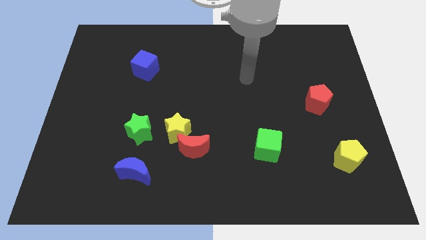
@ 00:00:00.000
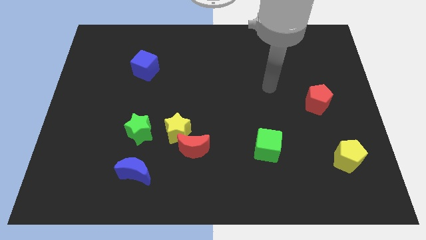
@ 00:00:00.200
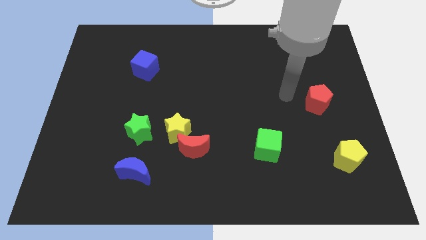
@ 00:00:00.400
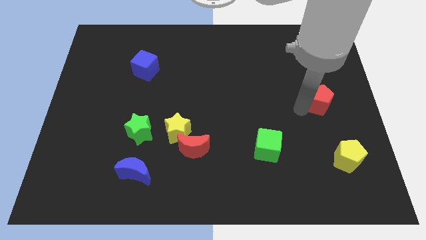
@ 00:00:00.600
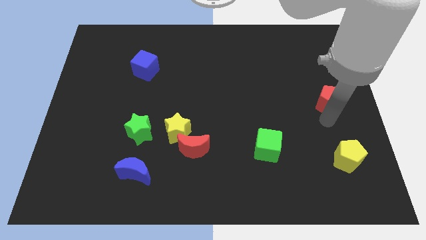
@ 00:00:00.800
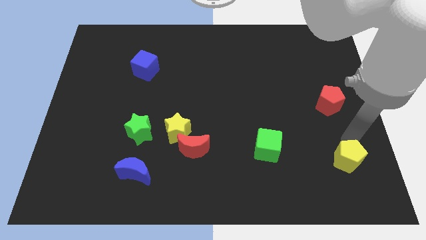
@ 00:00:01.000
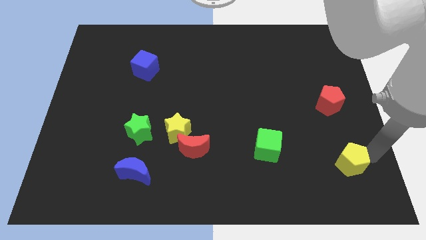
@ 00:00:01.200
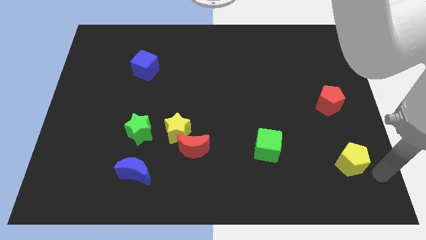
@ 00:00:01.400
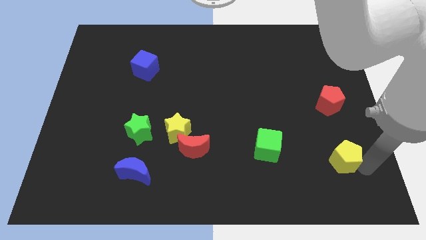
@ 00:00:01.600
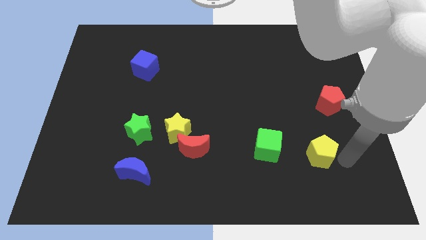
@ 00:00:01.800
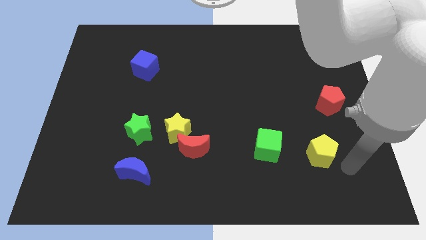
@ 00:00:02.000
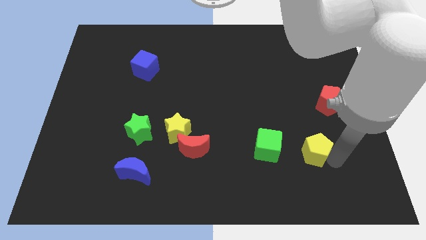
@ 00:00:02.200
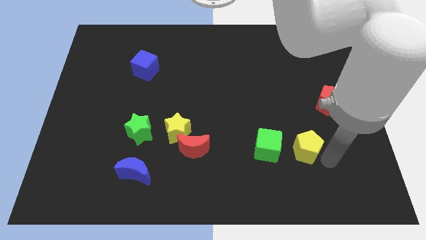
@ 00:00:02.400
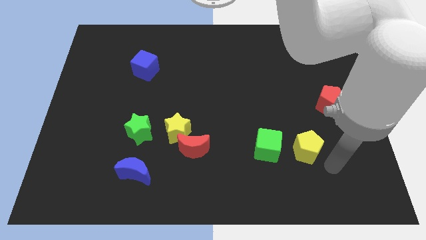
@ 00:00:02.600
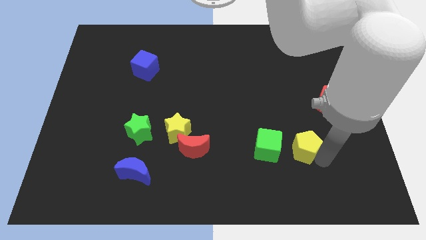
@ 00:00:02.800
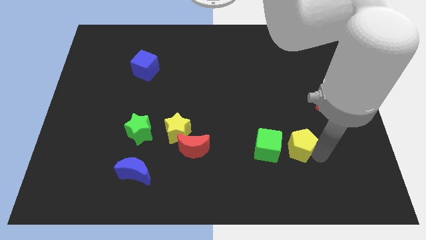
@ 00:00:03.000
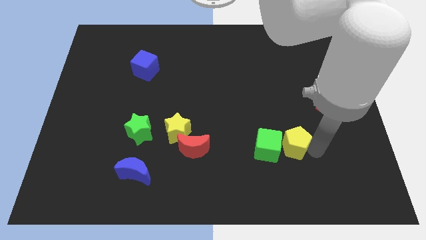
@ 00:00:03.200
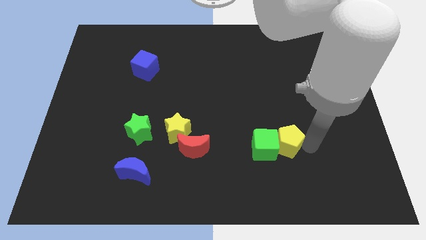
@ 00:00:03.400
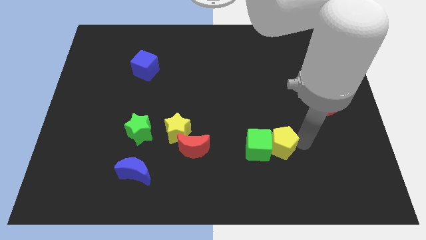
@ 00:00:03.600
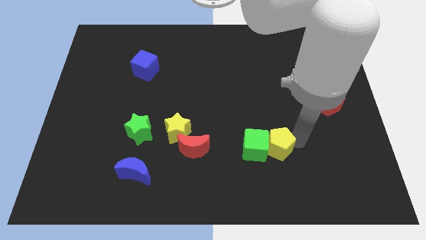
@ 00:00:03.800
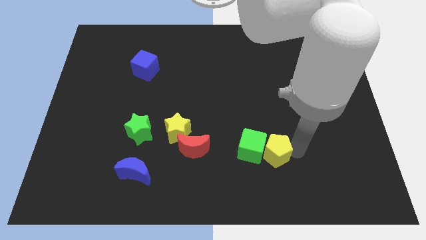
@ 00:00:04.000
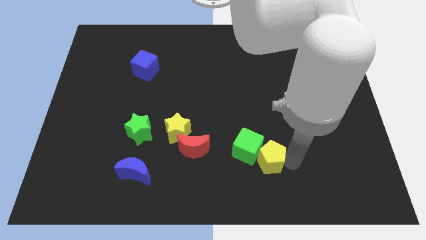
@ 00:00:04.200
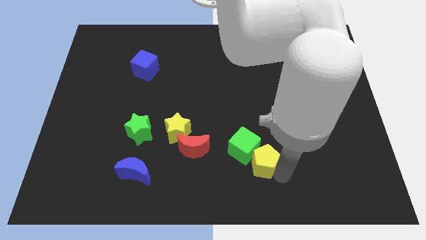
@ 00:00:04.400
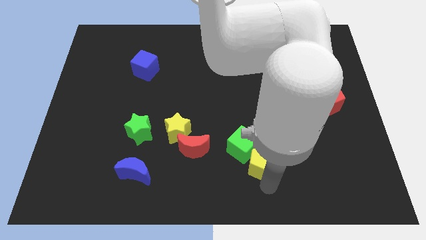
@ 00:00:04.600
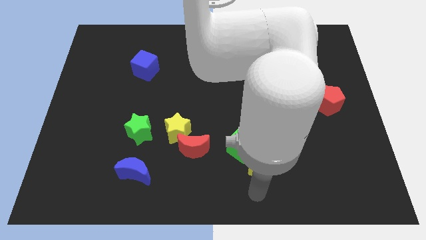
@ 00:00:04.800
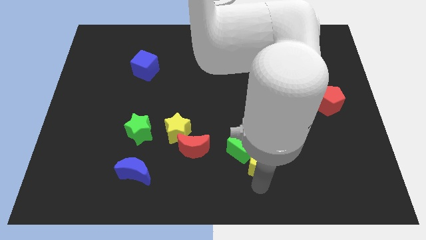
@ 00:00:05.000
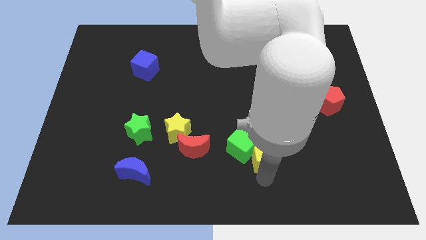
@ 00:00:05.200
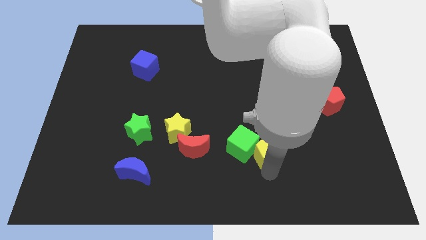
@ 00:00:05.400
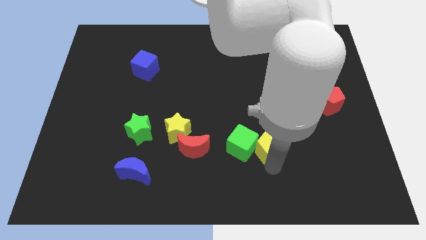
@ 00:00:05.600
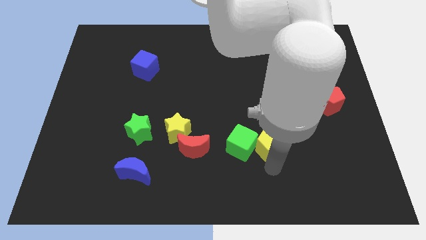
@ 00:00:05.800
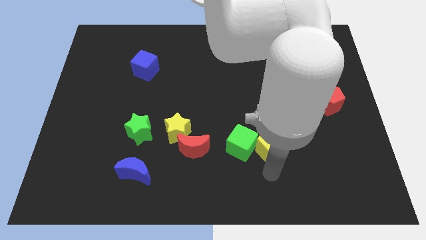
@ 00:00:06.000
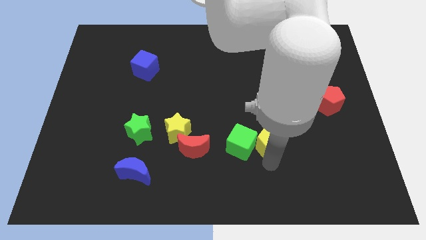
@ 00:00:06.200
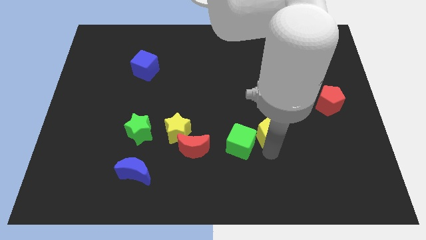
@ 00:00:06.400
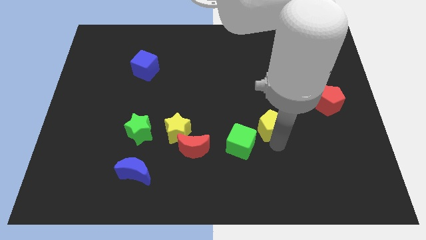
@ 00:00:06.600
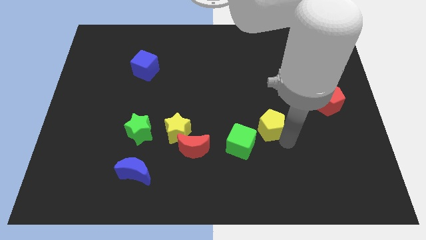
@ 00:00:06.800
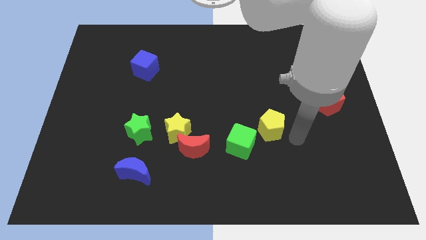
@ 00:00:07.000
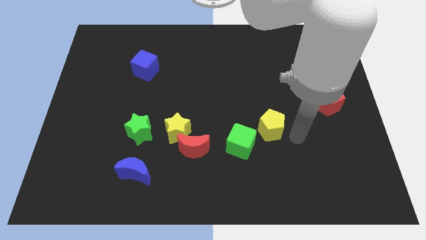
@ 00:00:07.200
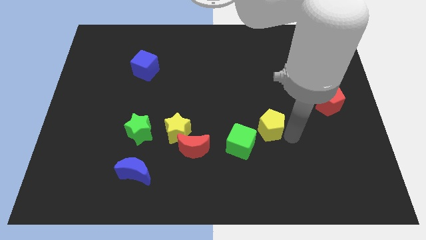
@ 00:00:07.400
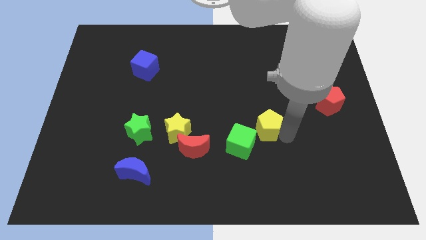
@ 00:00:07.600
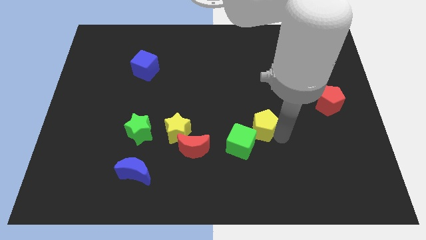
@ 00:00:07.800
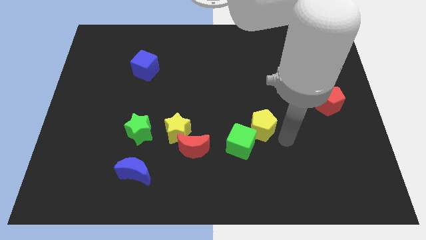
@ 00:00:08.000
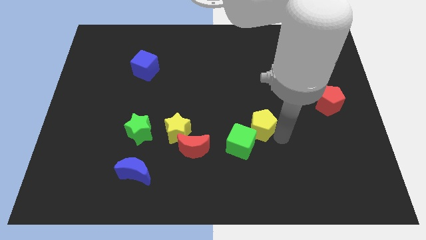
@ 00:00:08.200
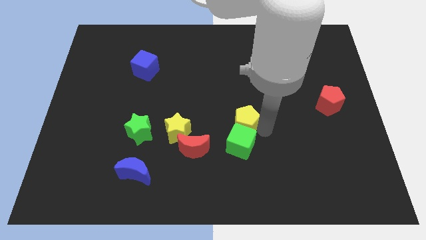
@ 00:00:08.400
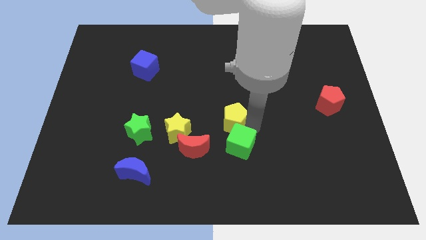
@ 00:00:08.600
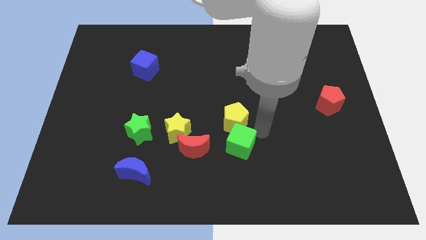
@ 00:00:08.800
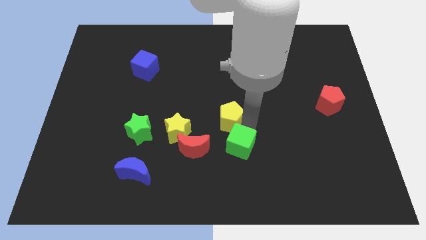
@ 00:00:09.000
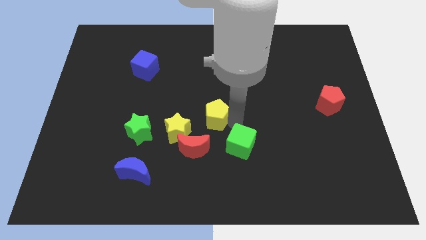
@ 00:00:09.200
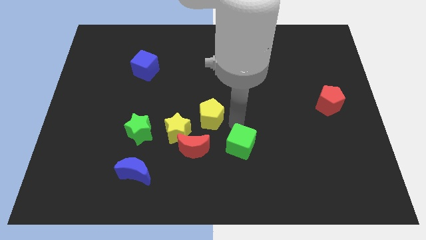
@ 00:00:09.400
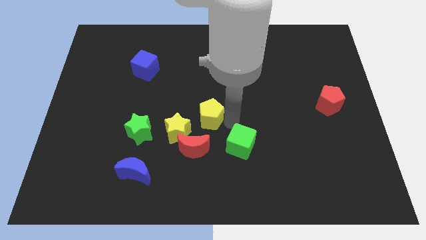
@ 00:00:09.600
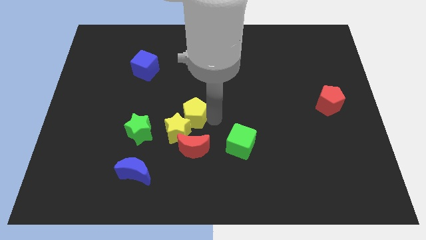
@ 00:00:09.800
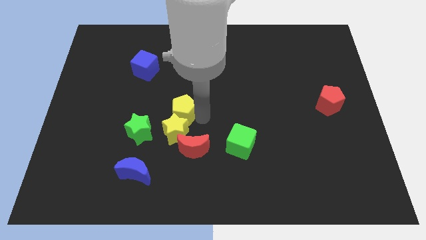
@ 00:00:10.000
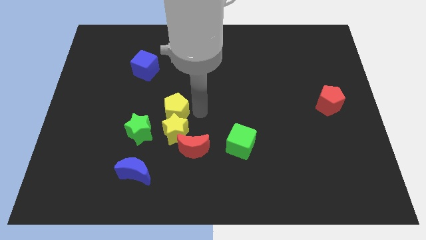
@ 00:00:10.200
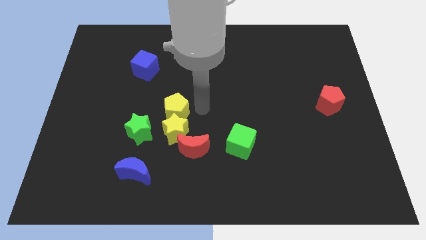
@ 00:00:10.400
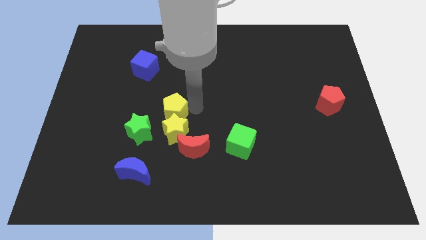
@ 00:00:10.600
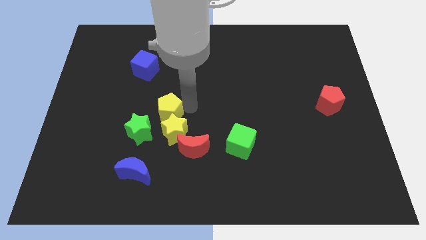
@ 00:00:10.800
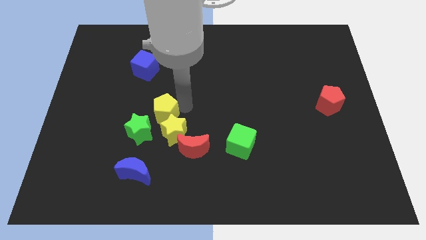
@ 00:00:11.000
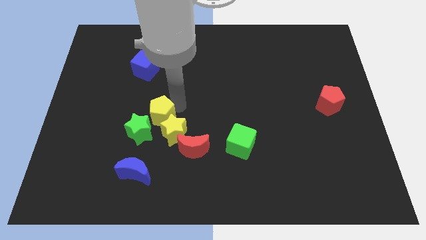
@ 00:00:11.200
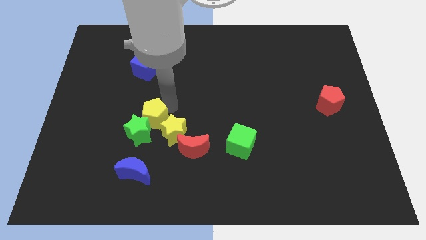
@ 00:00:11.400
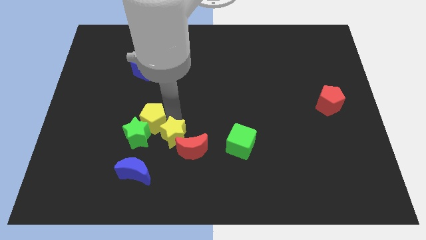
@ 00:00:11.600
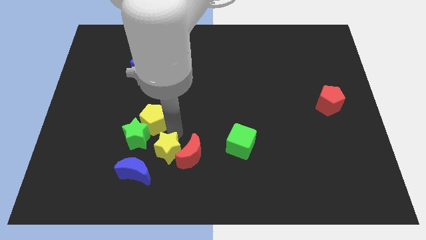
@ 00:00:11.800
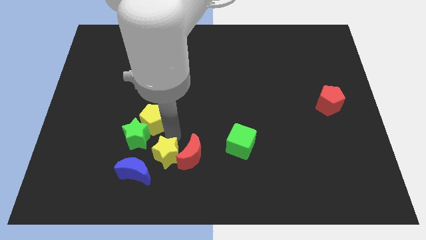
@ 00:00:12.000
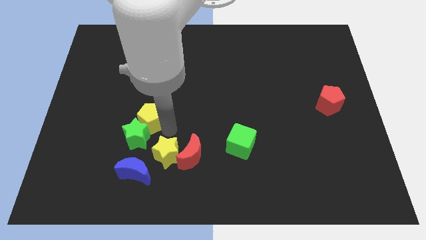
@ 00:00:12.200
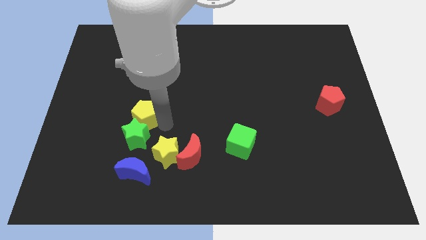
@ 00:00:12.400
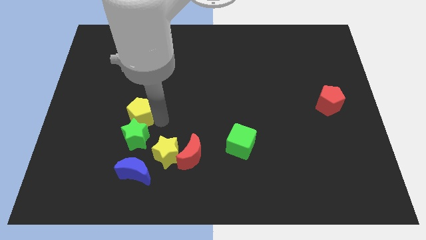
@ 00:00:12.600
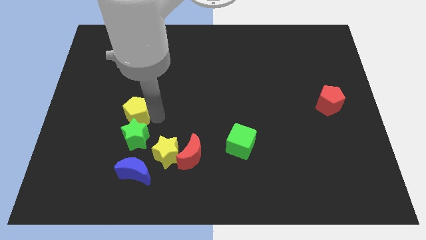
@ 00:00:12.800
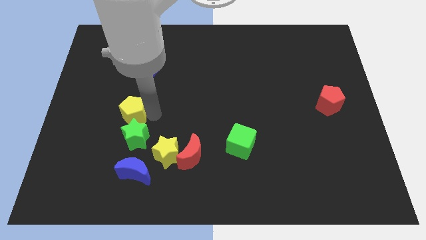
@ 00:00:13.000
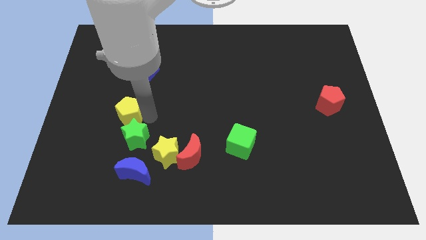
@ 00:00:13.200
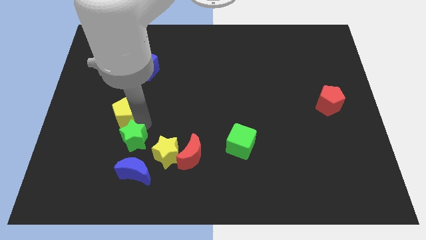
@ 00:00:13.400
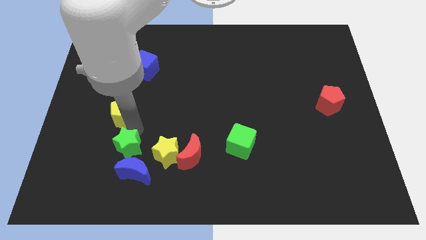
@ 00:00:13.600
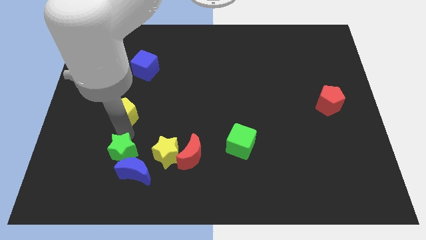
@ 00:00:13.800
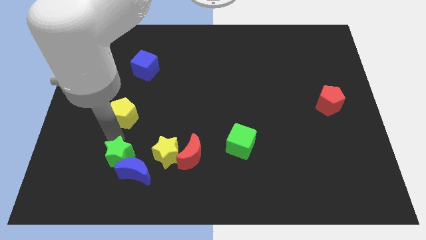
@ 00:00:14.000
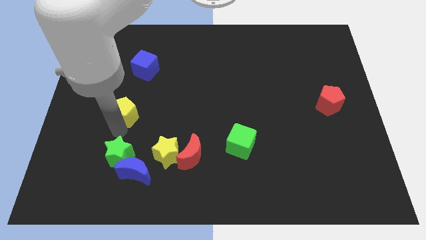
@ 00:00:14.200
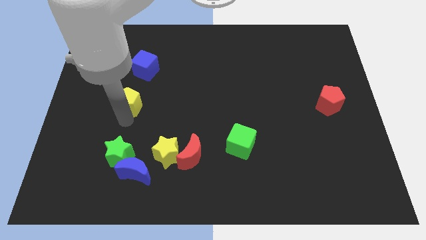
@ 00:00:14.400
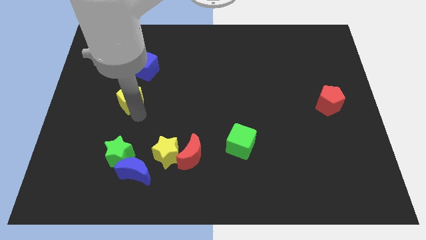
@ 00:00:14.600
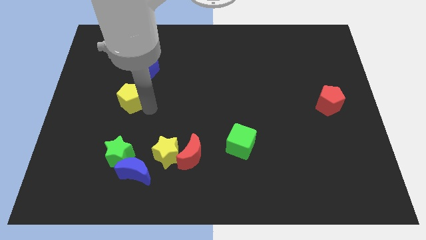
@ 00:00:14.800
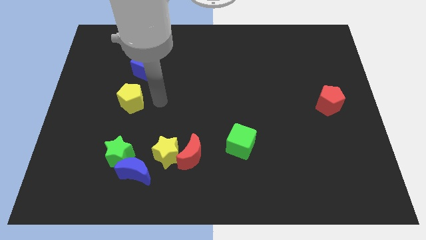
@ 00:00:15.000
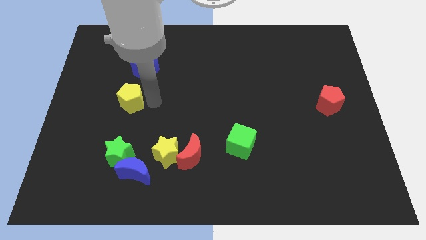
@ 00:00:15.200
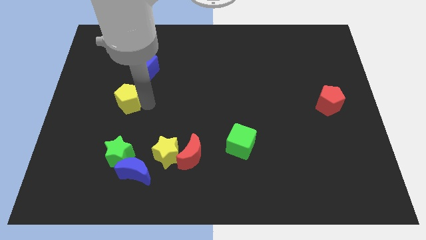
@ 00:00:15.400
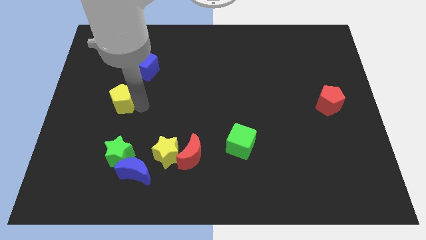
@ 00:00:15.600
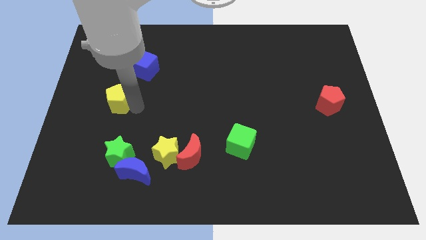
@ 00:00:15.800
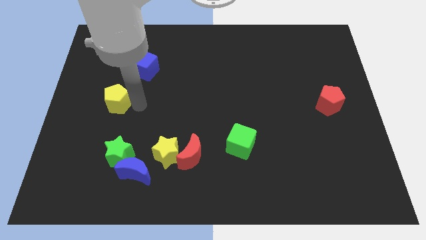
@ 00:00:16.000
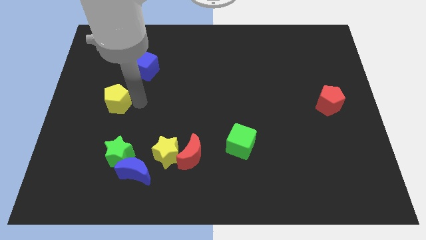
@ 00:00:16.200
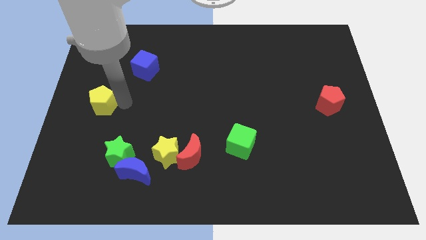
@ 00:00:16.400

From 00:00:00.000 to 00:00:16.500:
move the yellow pentagon to the left side of the board
